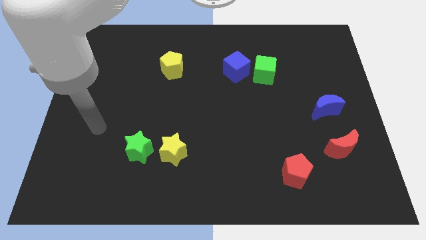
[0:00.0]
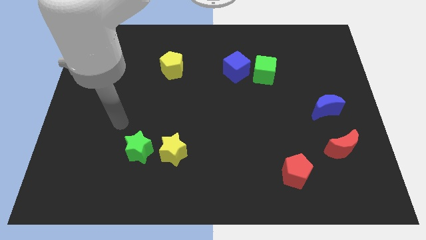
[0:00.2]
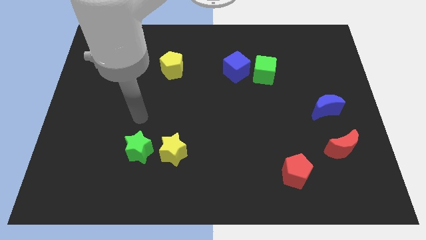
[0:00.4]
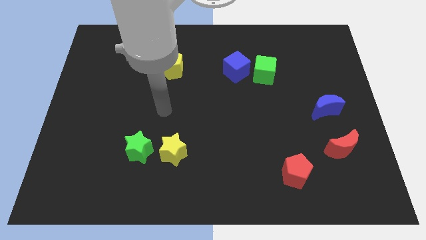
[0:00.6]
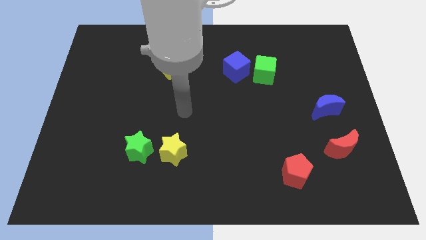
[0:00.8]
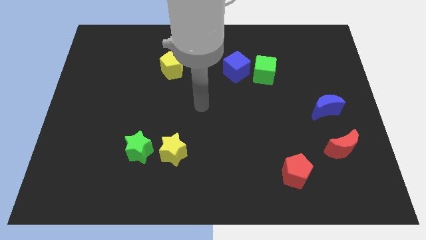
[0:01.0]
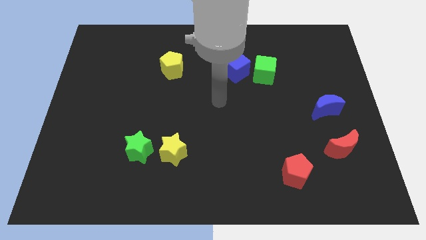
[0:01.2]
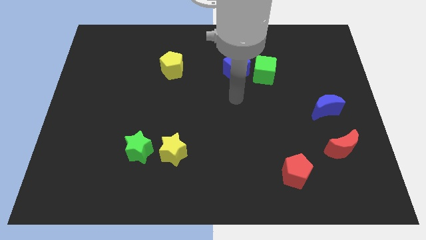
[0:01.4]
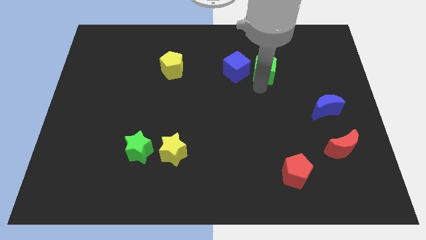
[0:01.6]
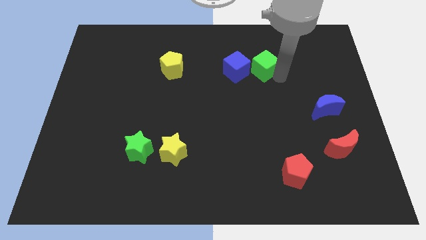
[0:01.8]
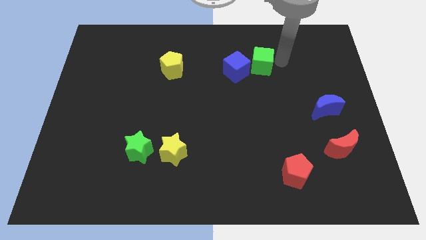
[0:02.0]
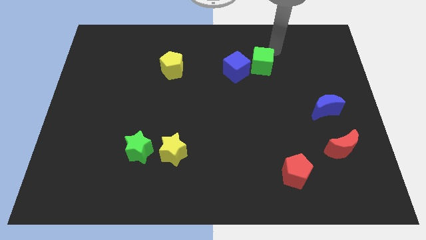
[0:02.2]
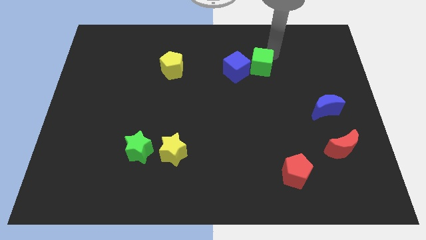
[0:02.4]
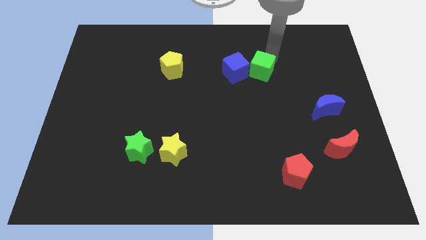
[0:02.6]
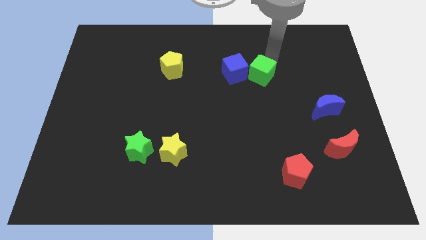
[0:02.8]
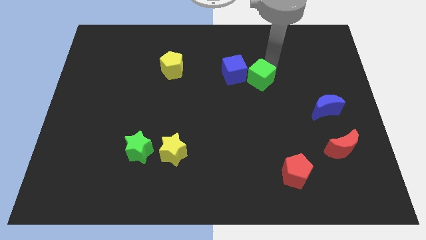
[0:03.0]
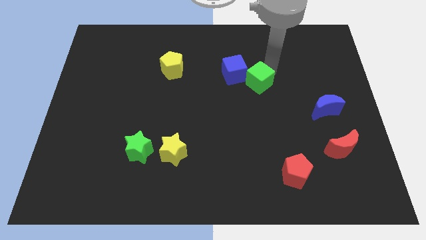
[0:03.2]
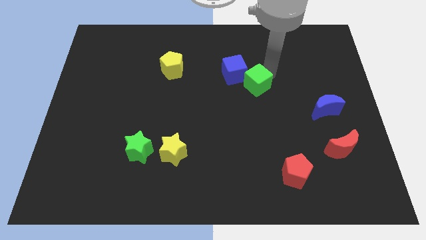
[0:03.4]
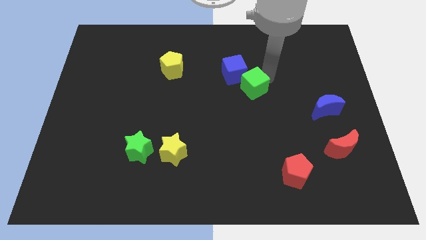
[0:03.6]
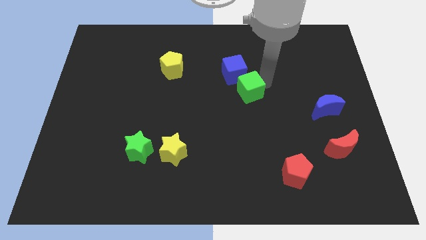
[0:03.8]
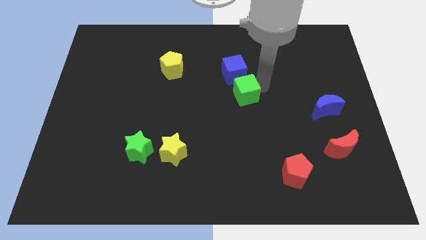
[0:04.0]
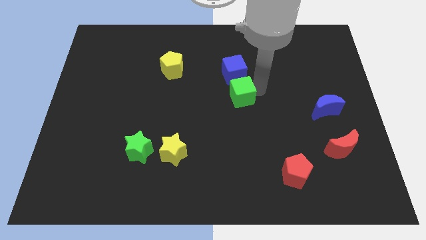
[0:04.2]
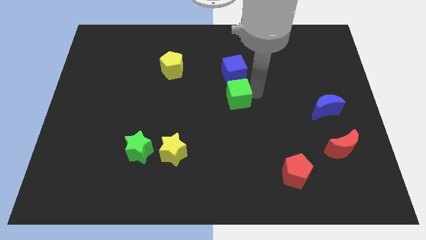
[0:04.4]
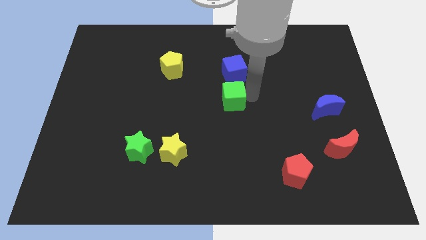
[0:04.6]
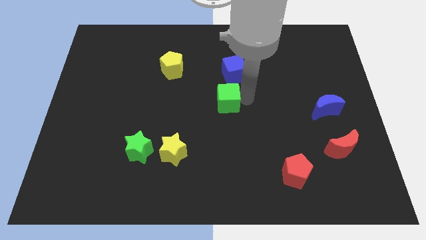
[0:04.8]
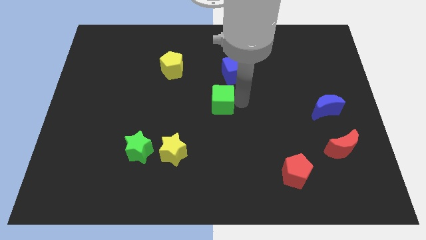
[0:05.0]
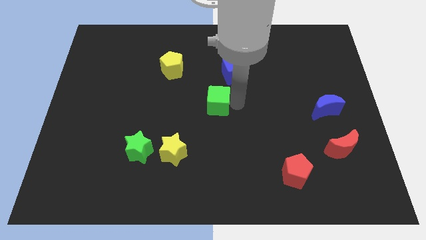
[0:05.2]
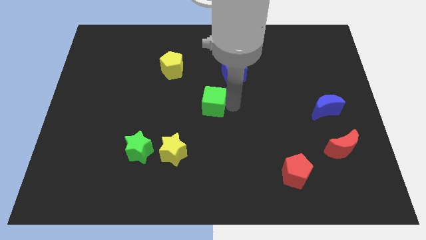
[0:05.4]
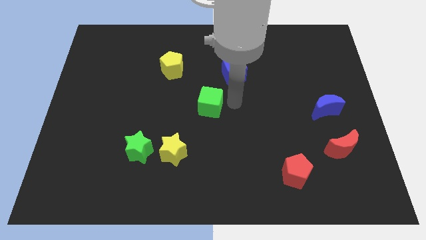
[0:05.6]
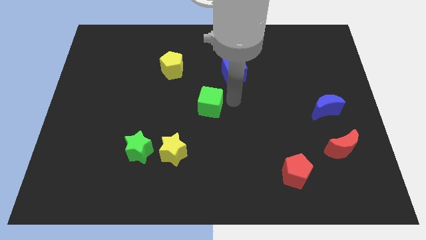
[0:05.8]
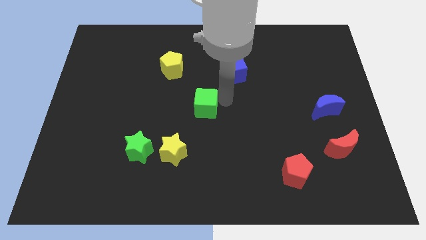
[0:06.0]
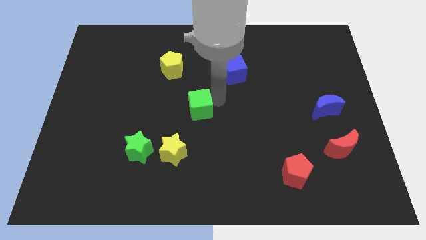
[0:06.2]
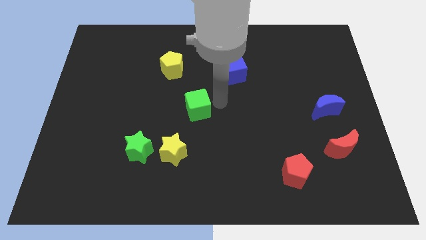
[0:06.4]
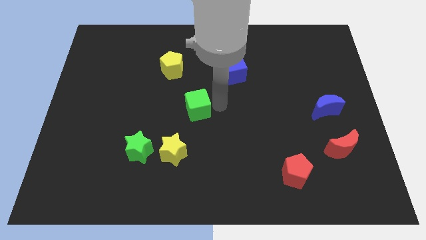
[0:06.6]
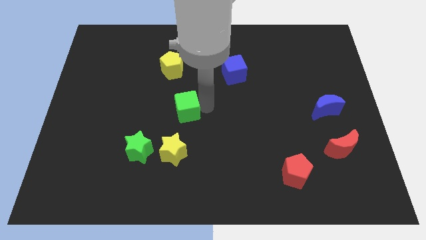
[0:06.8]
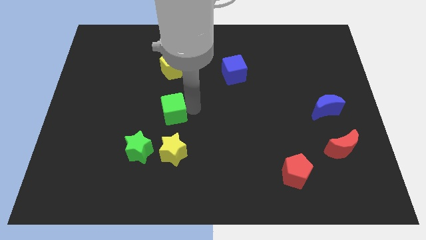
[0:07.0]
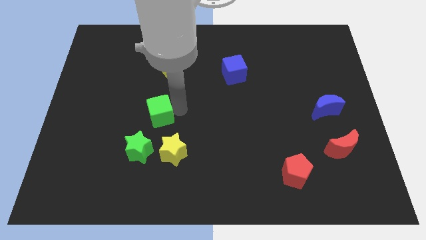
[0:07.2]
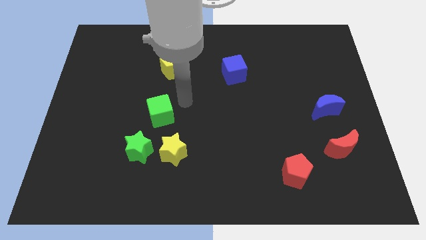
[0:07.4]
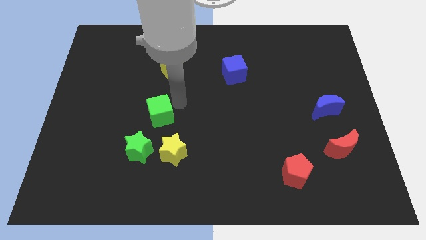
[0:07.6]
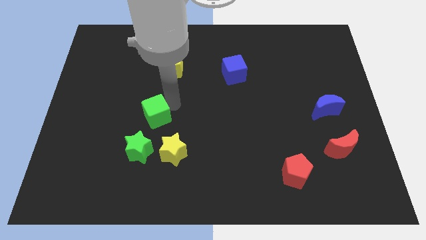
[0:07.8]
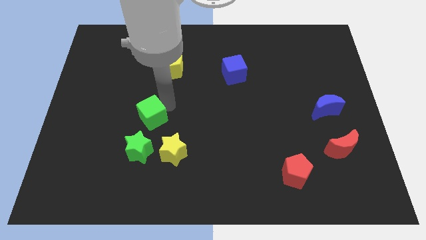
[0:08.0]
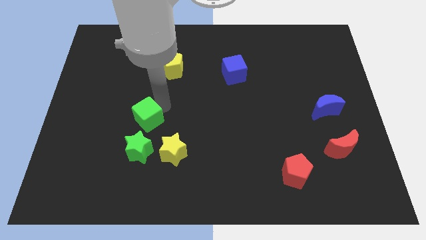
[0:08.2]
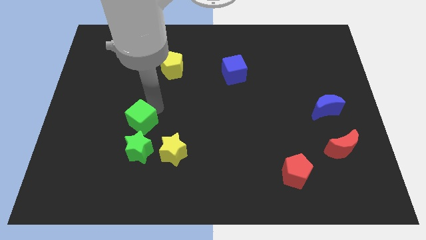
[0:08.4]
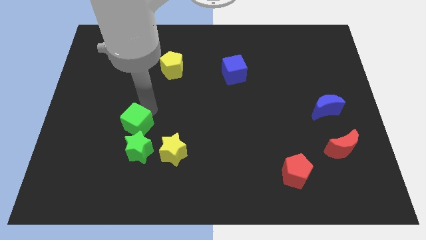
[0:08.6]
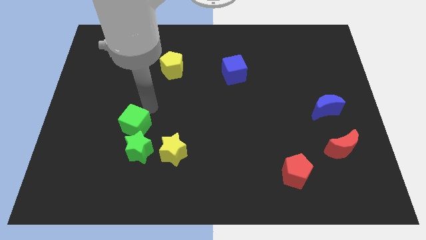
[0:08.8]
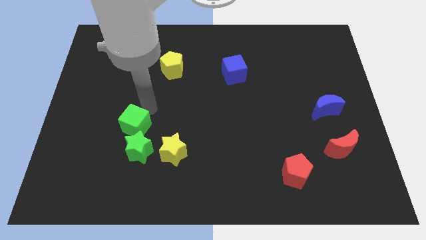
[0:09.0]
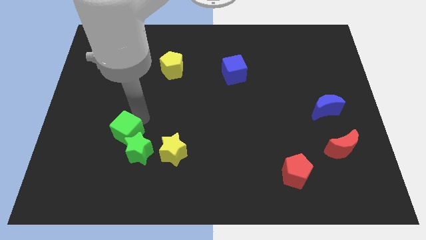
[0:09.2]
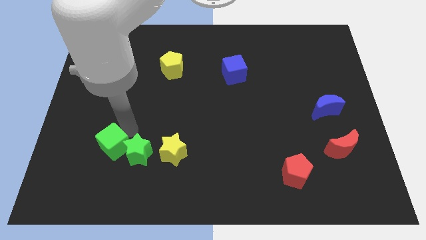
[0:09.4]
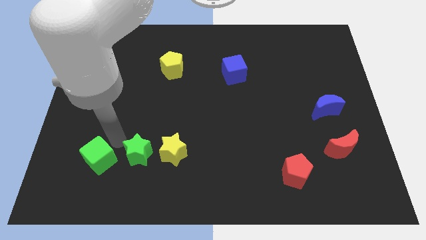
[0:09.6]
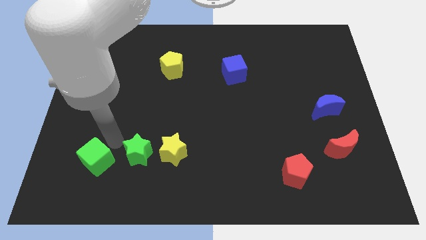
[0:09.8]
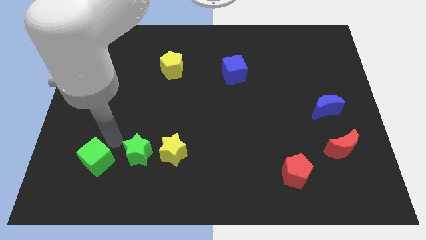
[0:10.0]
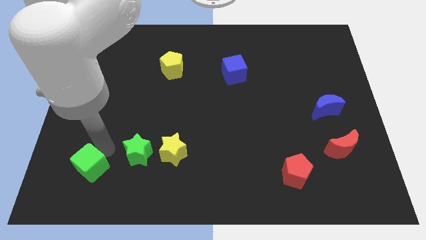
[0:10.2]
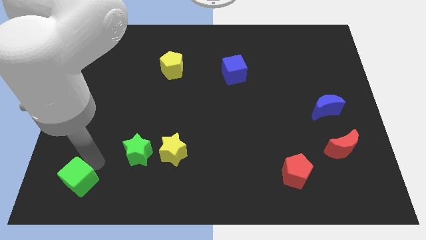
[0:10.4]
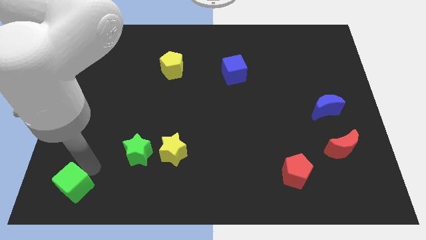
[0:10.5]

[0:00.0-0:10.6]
slide the green cube to the bottom left corner

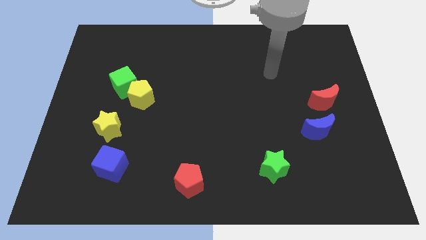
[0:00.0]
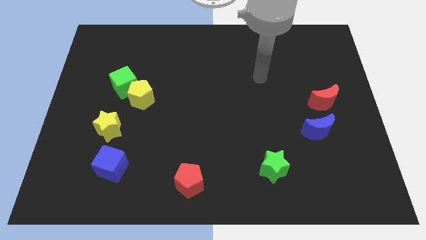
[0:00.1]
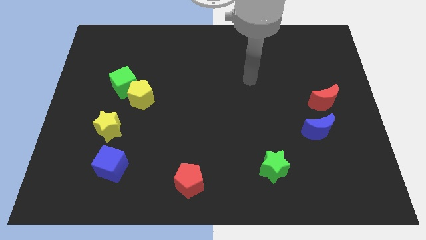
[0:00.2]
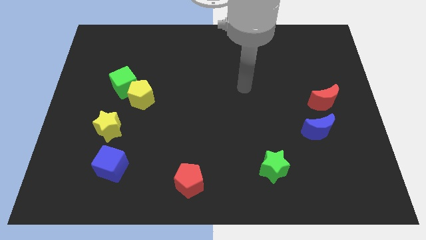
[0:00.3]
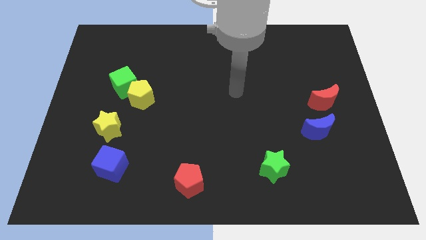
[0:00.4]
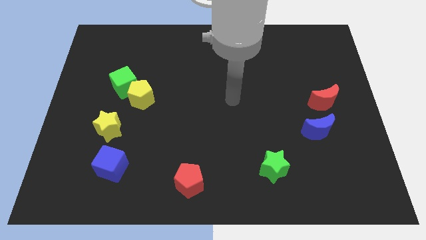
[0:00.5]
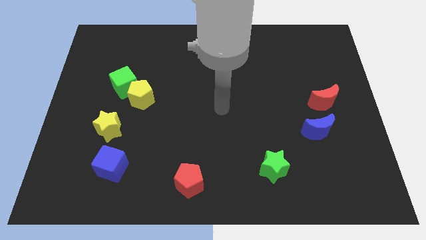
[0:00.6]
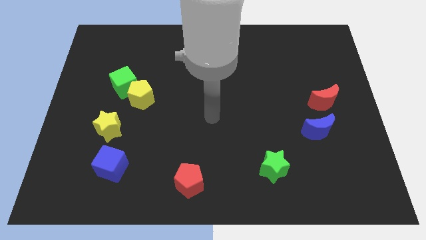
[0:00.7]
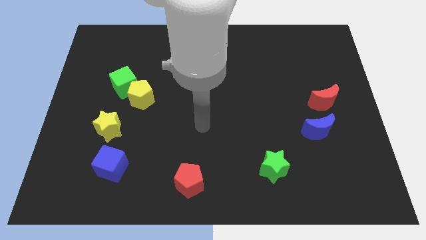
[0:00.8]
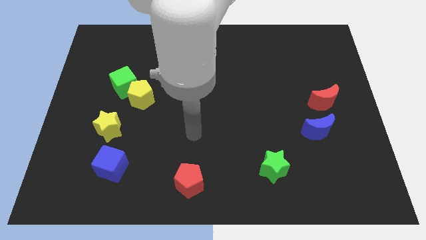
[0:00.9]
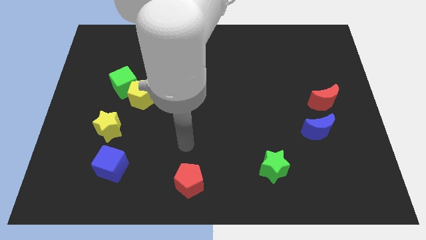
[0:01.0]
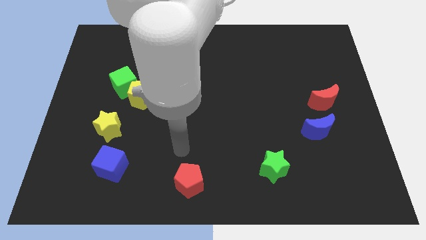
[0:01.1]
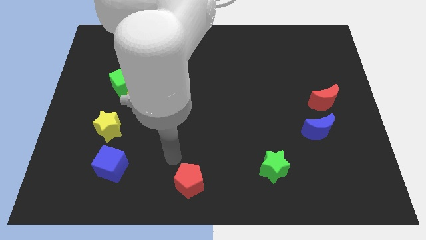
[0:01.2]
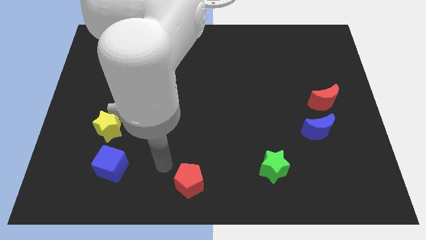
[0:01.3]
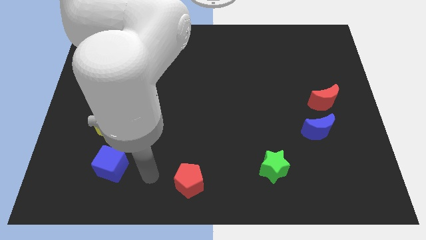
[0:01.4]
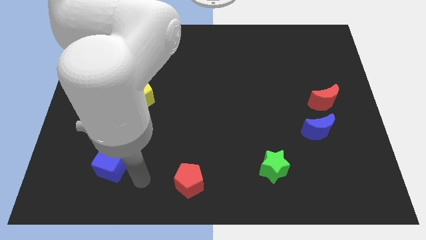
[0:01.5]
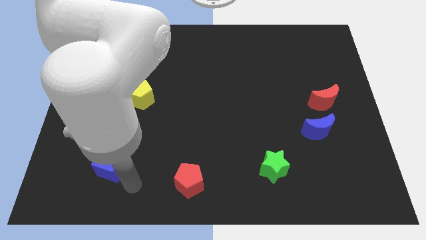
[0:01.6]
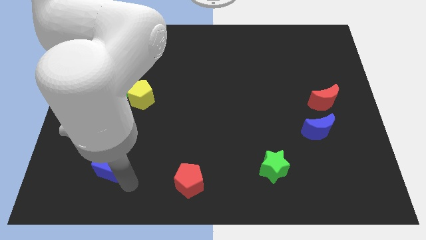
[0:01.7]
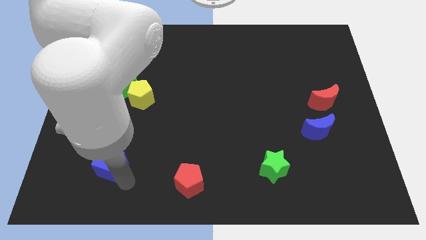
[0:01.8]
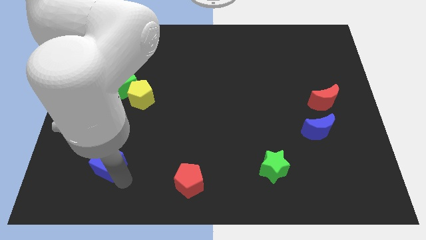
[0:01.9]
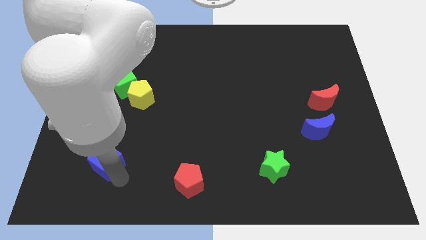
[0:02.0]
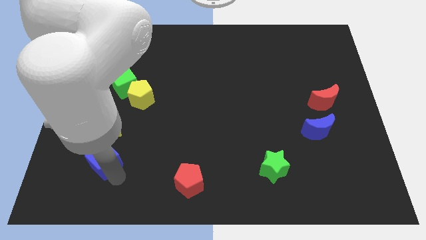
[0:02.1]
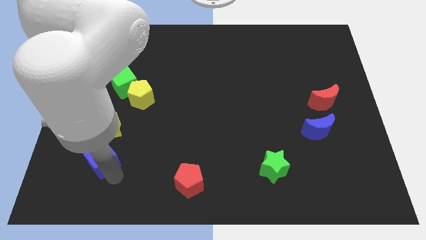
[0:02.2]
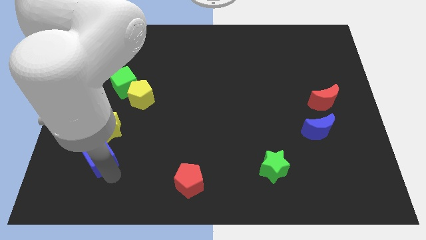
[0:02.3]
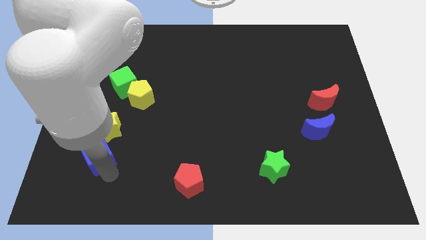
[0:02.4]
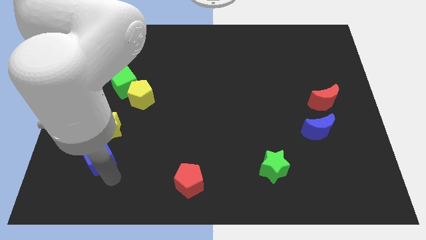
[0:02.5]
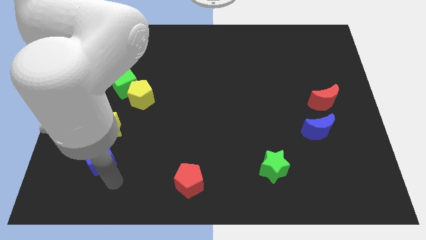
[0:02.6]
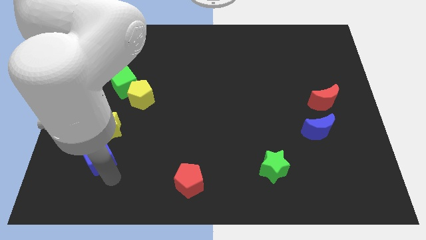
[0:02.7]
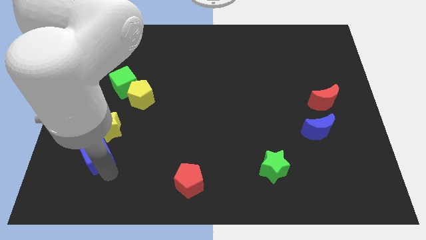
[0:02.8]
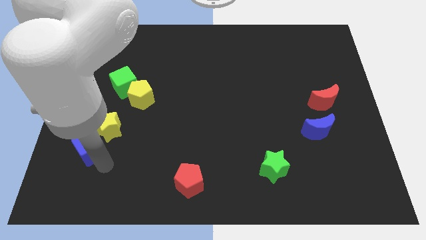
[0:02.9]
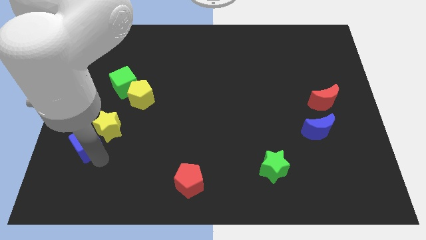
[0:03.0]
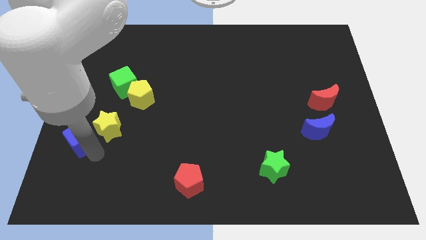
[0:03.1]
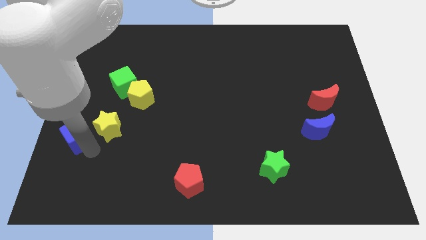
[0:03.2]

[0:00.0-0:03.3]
put the blue cube to the left side
